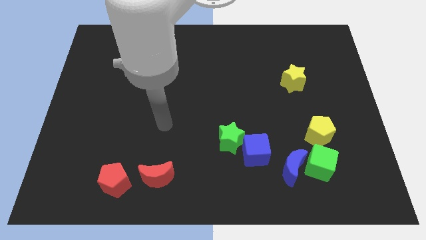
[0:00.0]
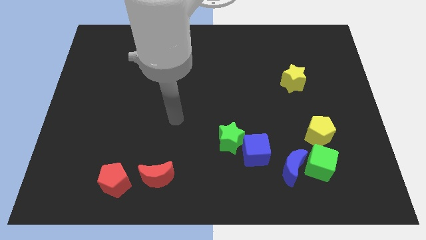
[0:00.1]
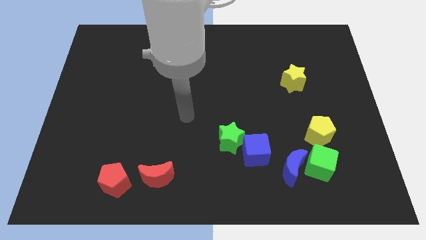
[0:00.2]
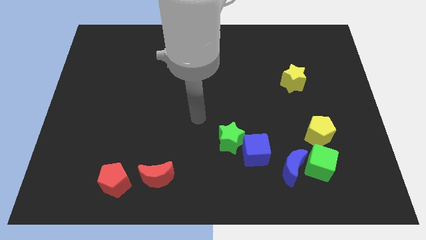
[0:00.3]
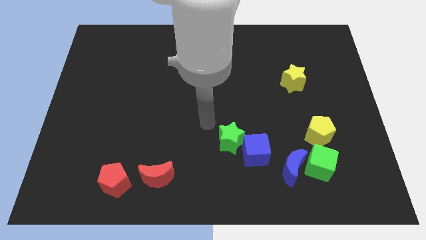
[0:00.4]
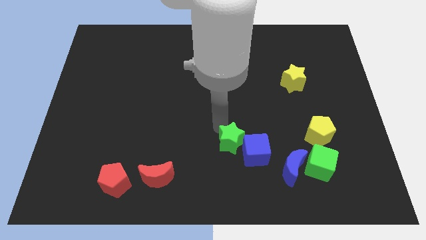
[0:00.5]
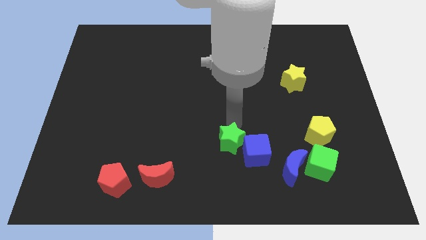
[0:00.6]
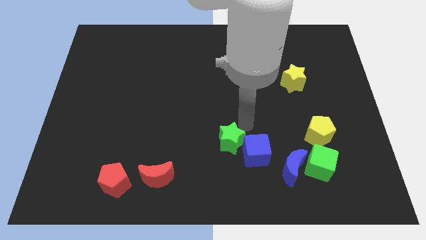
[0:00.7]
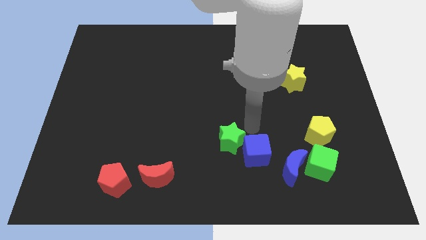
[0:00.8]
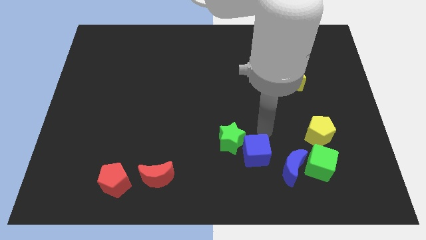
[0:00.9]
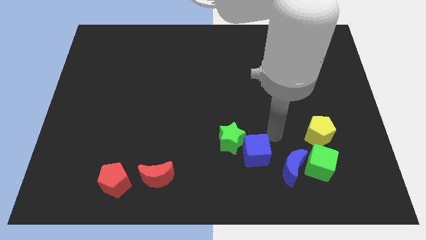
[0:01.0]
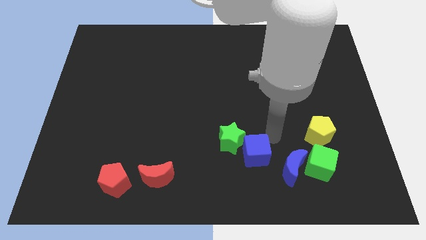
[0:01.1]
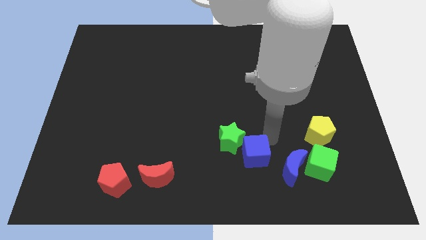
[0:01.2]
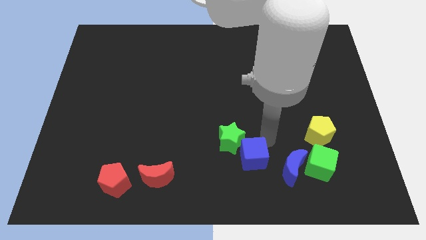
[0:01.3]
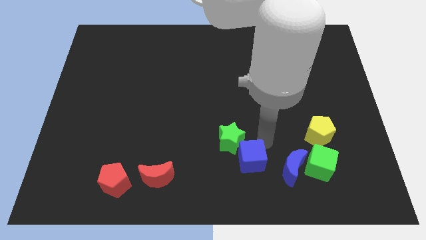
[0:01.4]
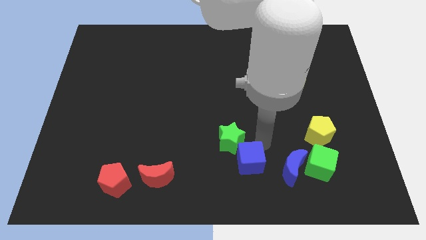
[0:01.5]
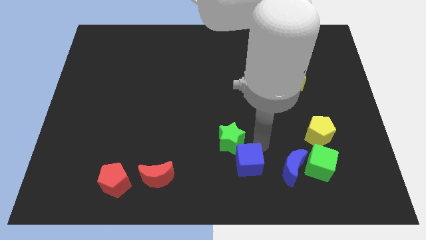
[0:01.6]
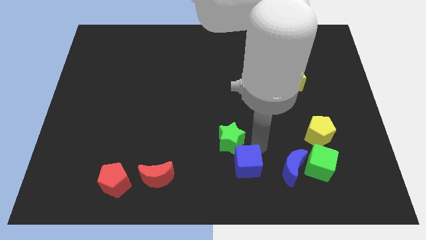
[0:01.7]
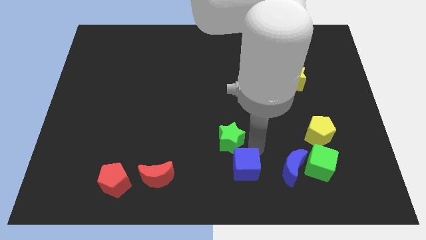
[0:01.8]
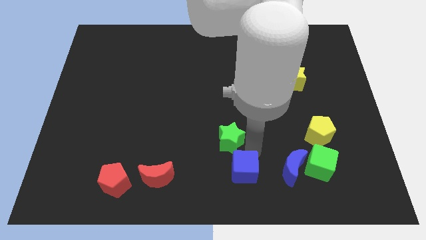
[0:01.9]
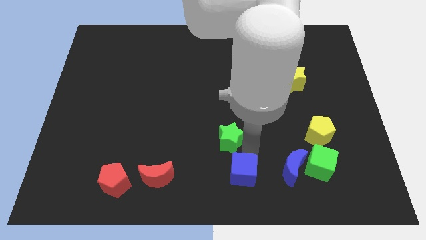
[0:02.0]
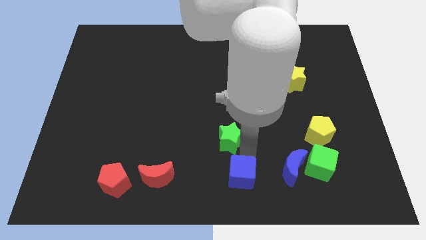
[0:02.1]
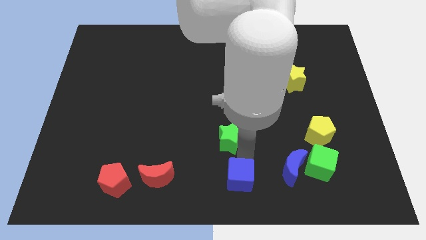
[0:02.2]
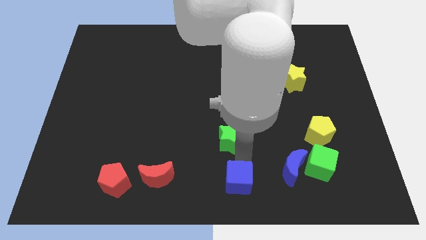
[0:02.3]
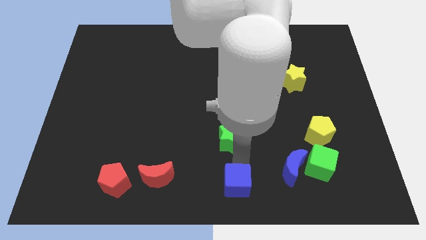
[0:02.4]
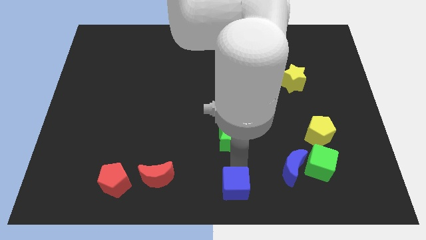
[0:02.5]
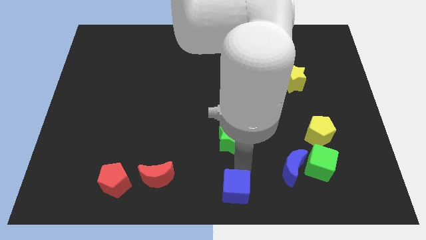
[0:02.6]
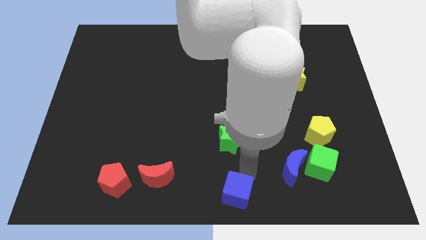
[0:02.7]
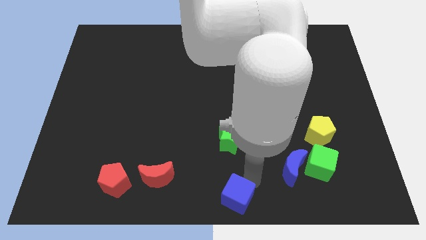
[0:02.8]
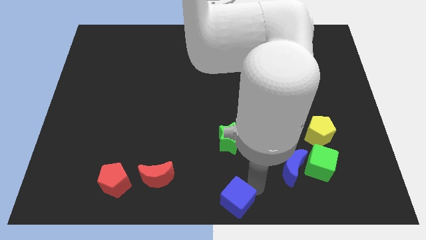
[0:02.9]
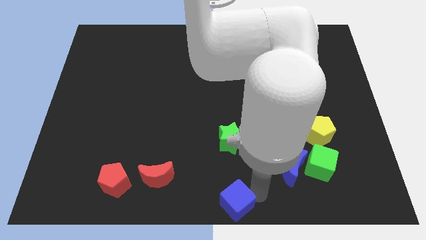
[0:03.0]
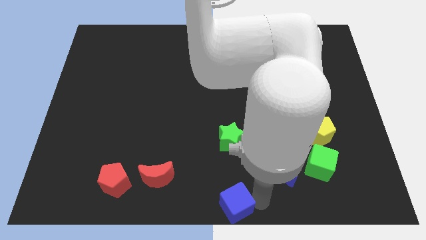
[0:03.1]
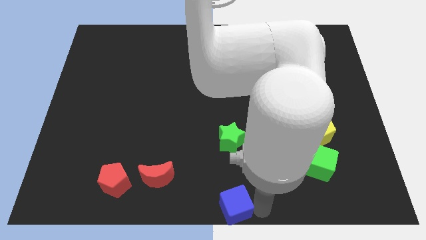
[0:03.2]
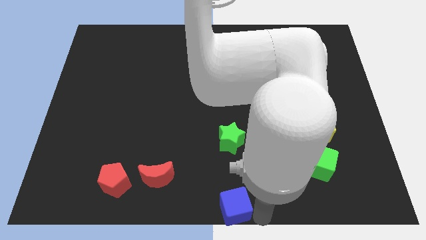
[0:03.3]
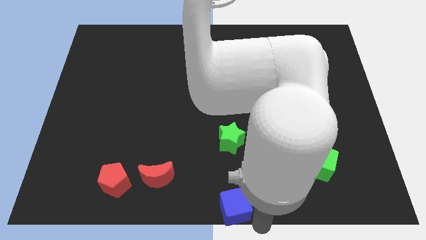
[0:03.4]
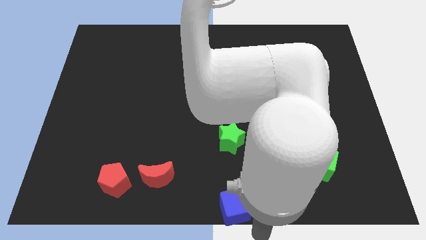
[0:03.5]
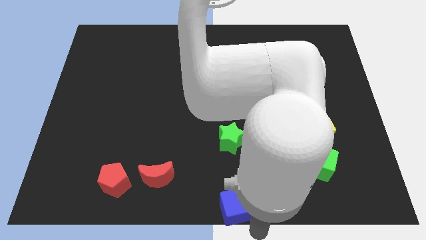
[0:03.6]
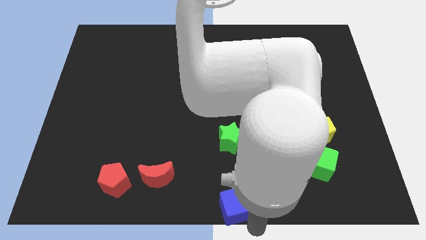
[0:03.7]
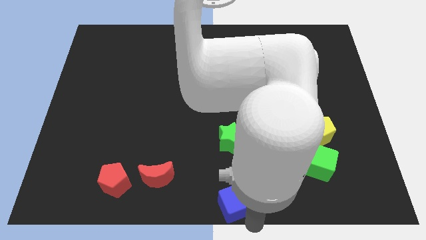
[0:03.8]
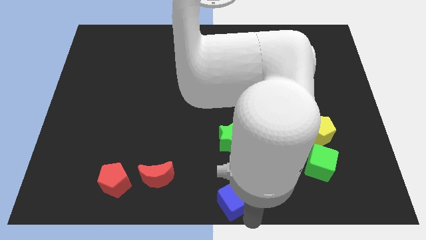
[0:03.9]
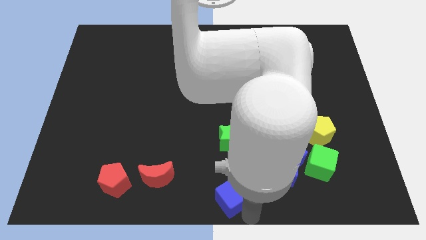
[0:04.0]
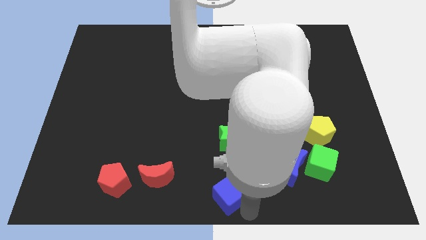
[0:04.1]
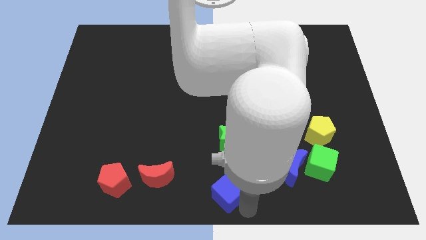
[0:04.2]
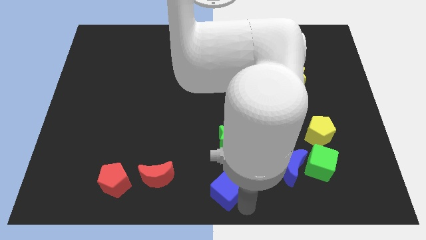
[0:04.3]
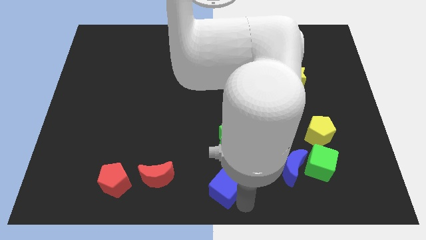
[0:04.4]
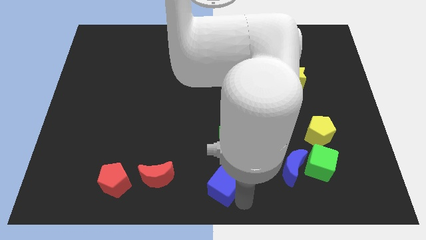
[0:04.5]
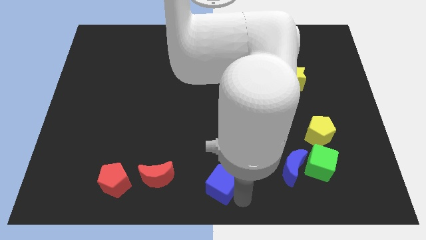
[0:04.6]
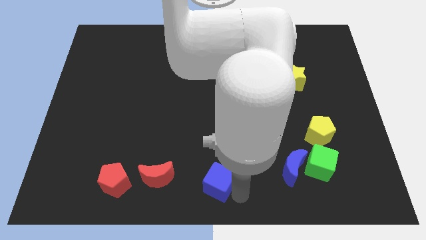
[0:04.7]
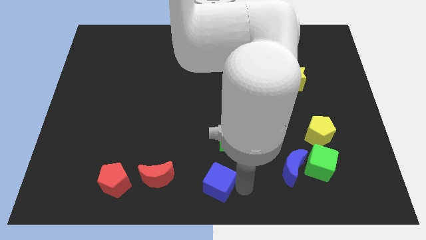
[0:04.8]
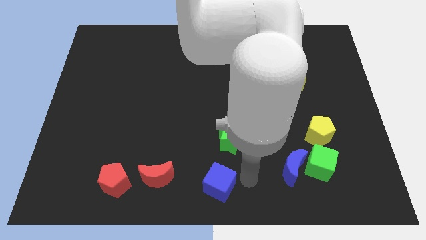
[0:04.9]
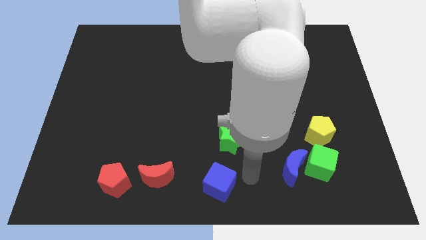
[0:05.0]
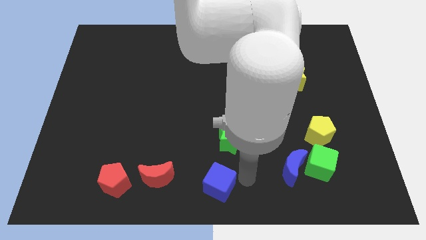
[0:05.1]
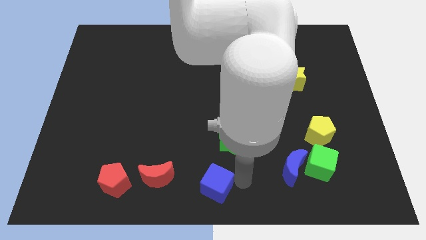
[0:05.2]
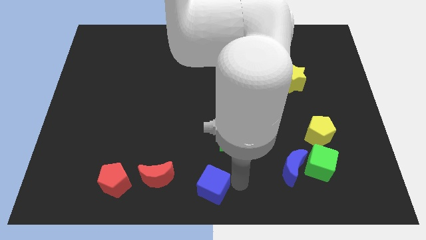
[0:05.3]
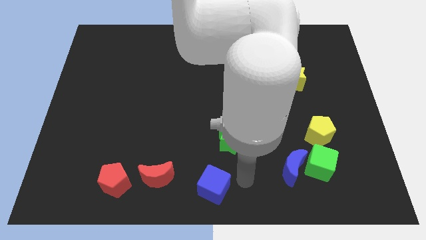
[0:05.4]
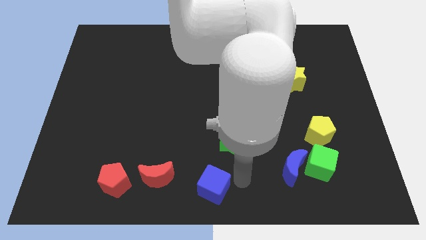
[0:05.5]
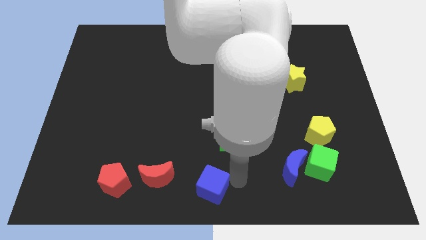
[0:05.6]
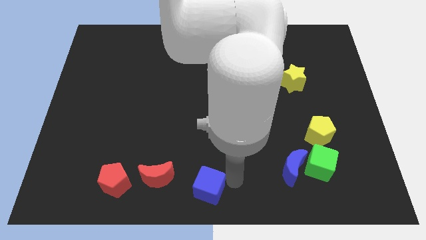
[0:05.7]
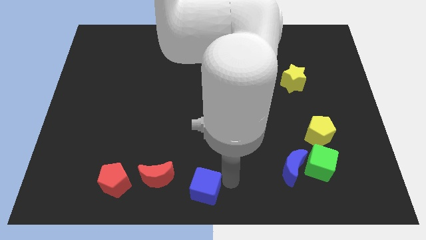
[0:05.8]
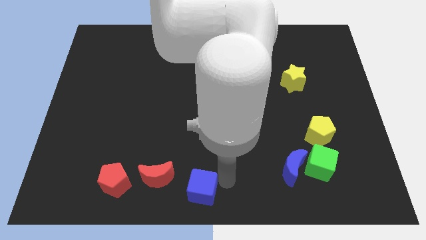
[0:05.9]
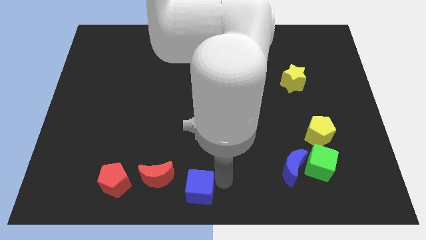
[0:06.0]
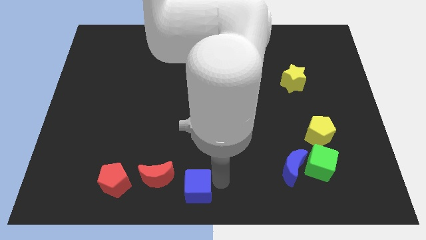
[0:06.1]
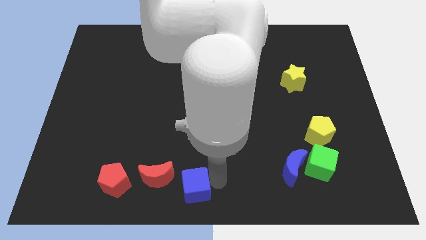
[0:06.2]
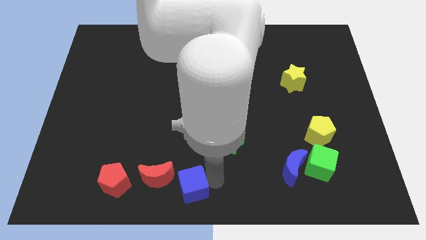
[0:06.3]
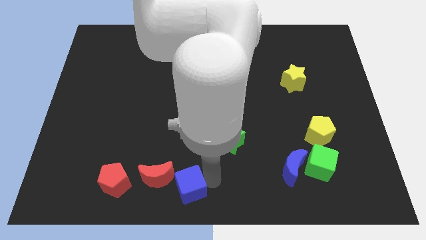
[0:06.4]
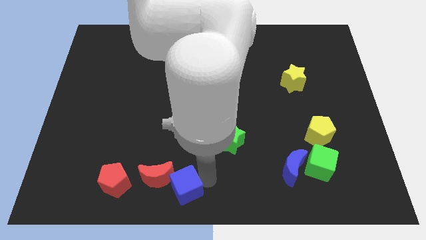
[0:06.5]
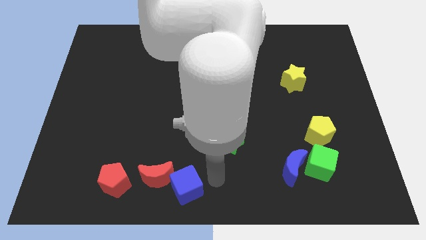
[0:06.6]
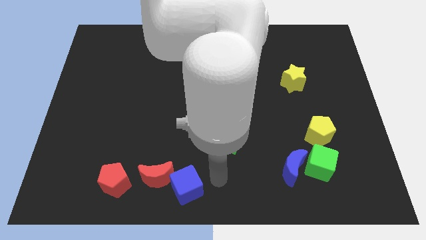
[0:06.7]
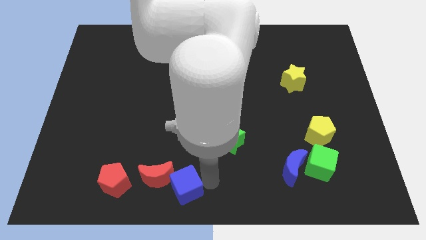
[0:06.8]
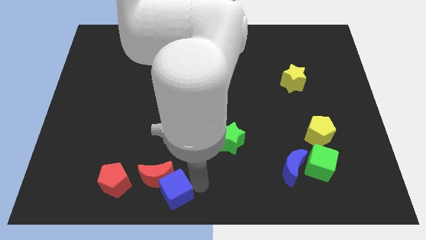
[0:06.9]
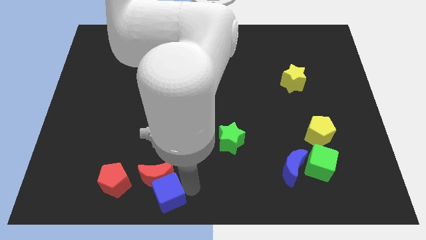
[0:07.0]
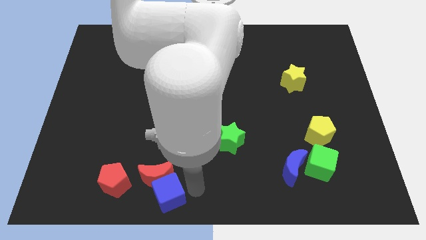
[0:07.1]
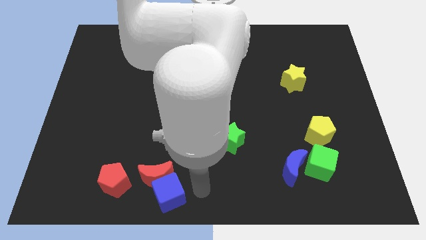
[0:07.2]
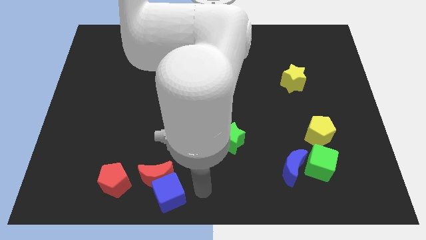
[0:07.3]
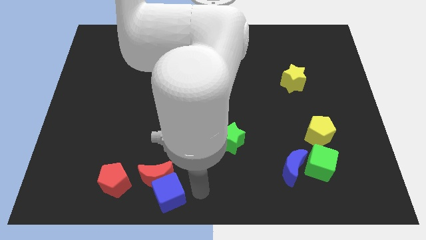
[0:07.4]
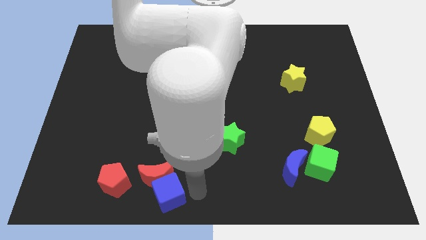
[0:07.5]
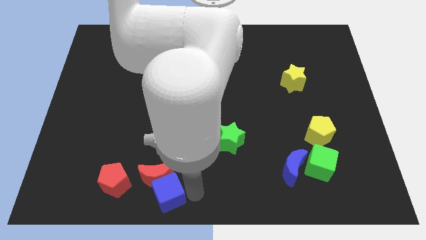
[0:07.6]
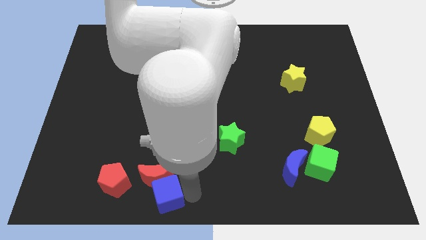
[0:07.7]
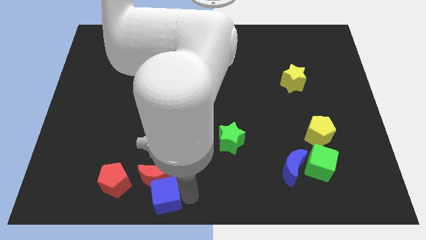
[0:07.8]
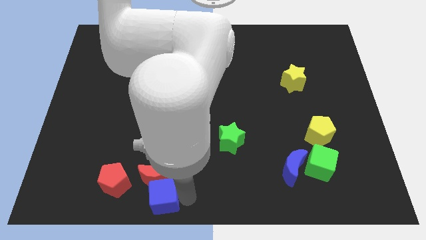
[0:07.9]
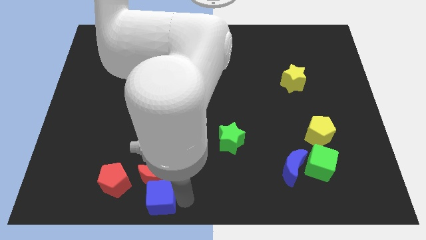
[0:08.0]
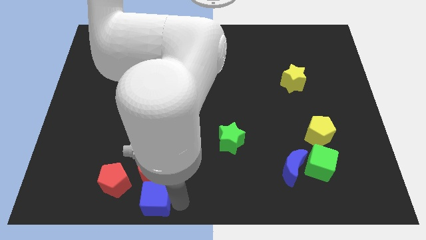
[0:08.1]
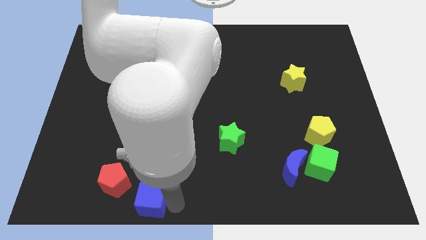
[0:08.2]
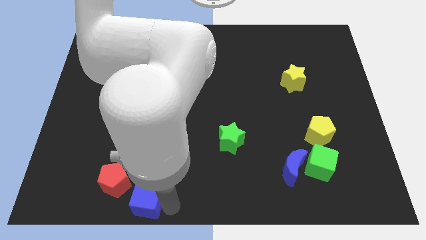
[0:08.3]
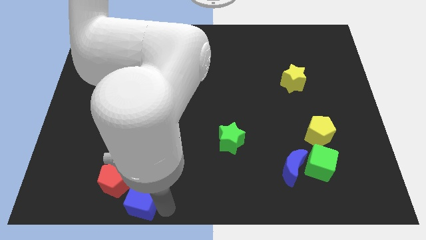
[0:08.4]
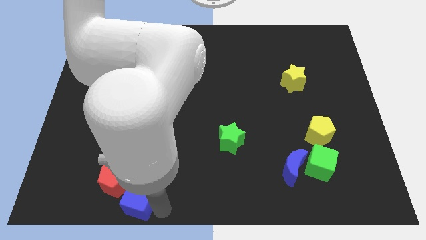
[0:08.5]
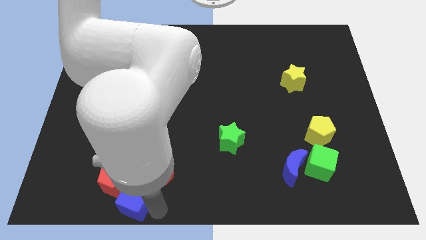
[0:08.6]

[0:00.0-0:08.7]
put the blue cube to the red pentagon
